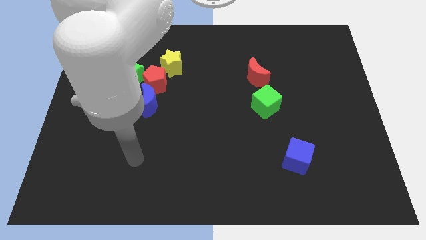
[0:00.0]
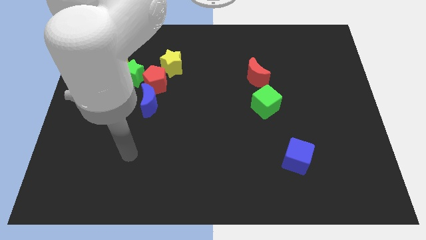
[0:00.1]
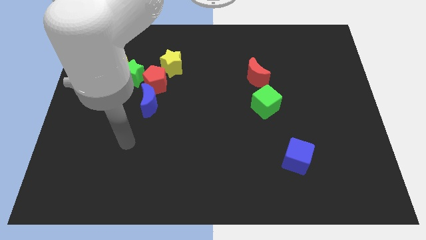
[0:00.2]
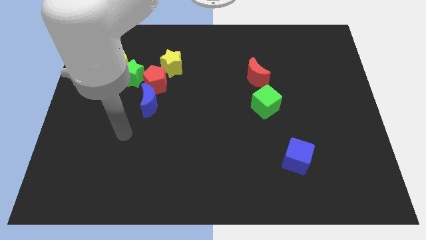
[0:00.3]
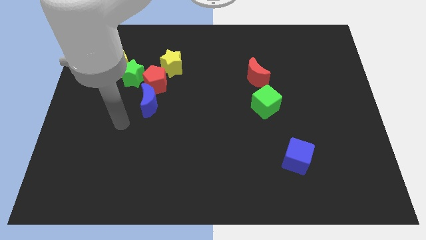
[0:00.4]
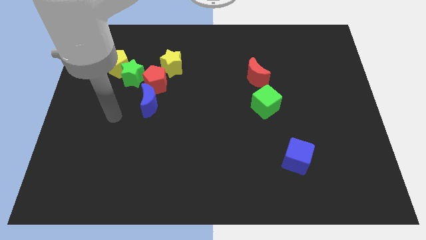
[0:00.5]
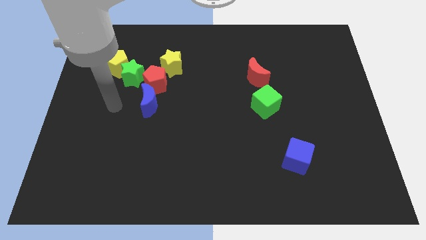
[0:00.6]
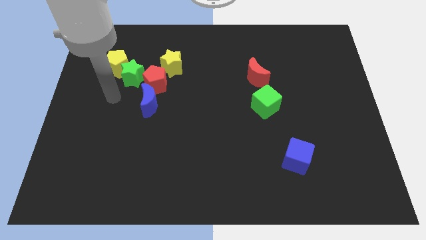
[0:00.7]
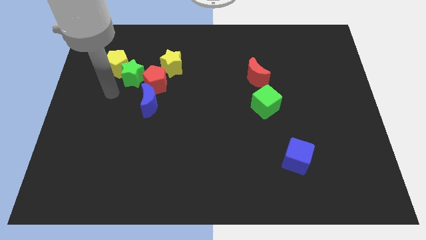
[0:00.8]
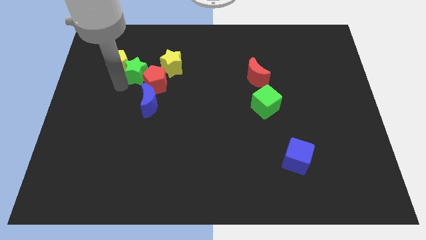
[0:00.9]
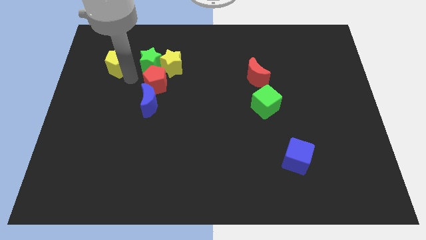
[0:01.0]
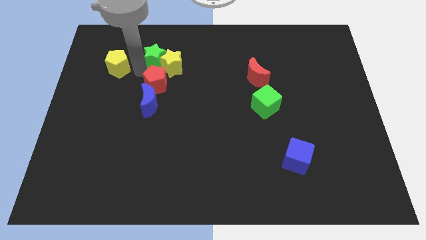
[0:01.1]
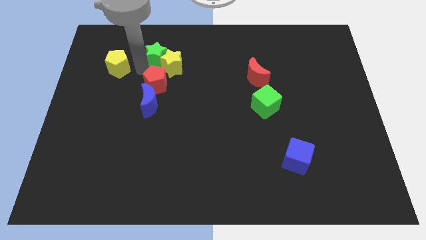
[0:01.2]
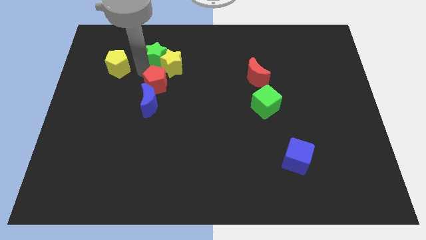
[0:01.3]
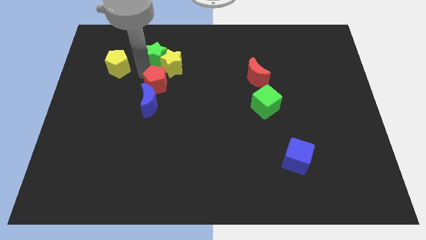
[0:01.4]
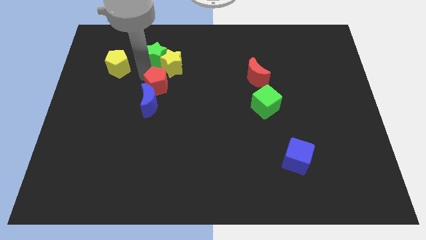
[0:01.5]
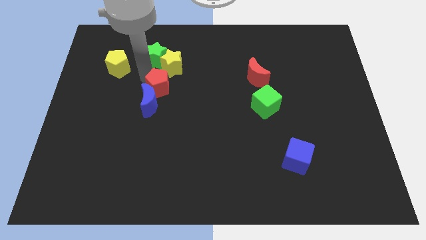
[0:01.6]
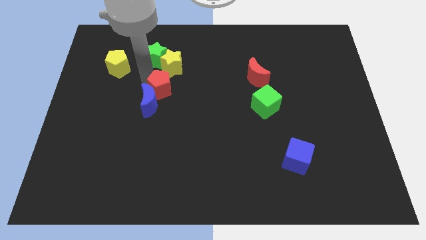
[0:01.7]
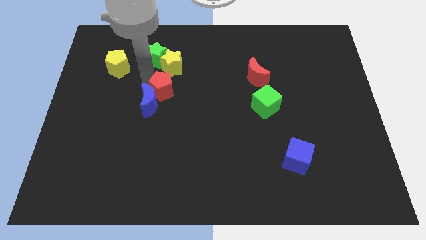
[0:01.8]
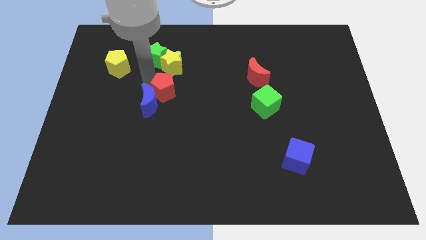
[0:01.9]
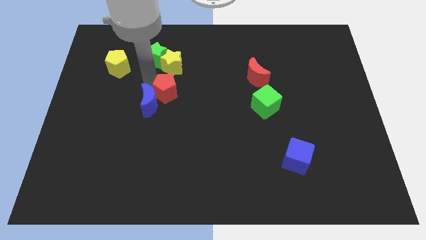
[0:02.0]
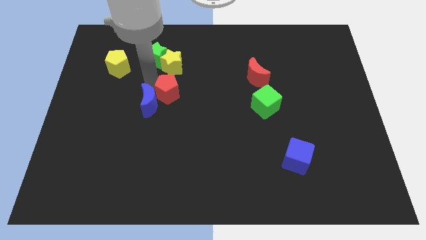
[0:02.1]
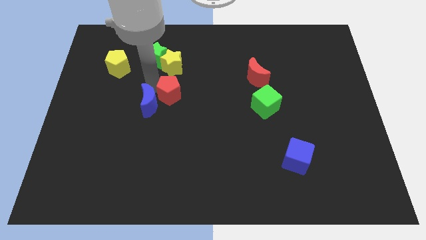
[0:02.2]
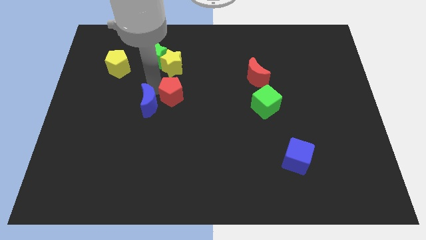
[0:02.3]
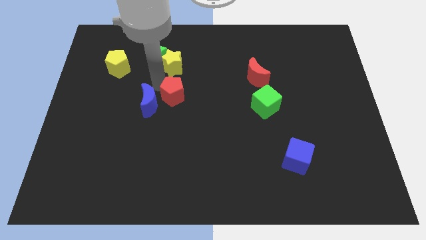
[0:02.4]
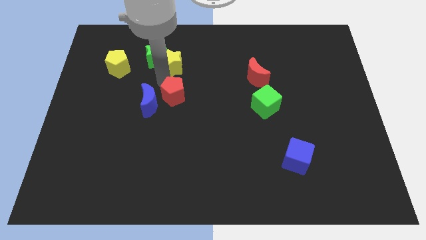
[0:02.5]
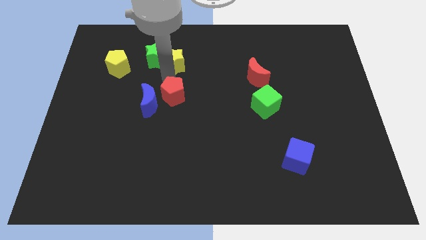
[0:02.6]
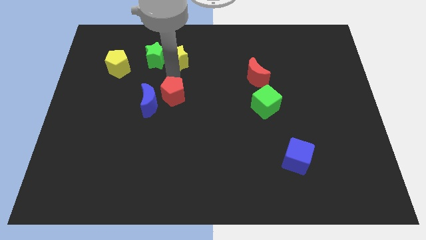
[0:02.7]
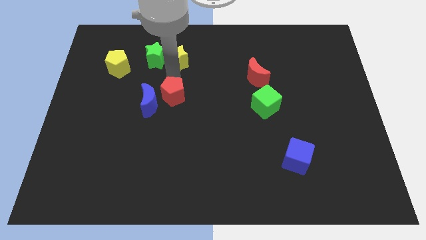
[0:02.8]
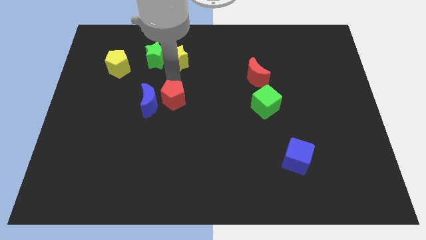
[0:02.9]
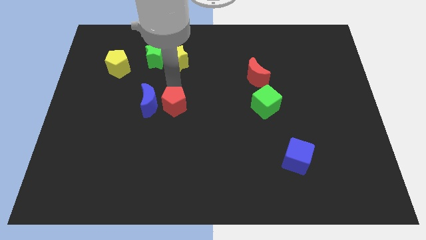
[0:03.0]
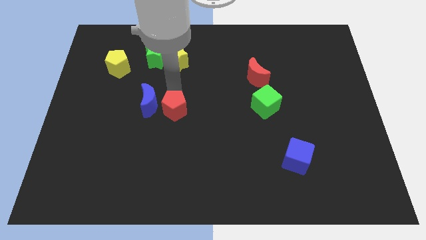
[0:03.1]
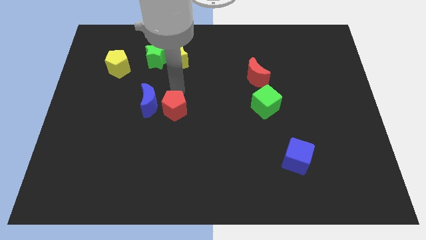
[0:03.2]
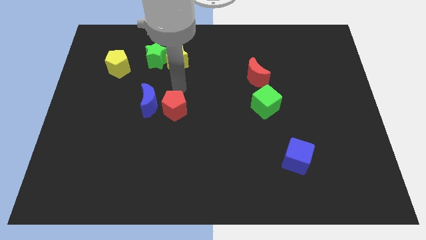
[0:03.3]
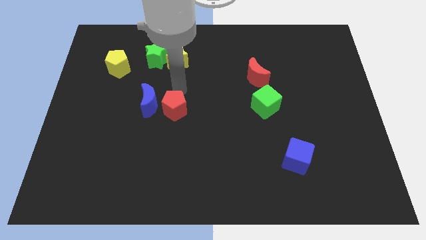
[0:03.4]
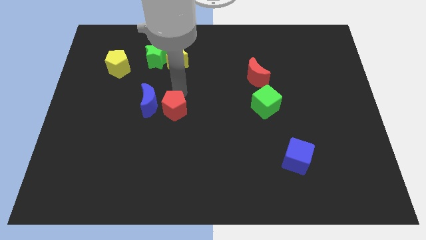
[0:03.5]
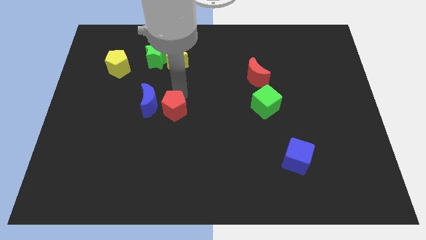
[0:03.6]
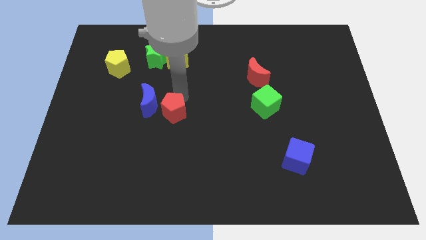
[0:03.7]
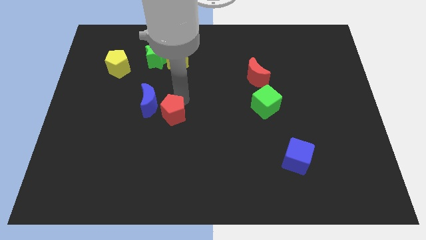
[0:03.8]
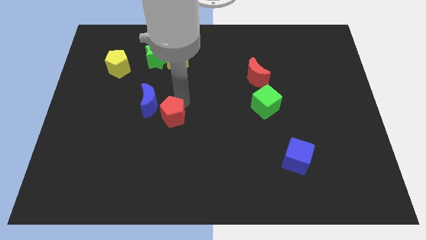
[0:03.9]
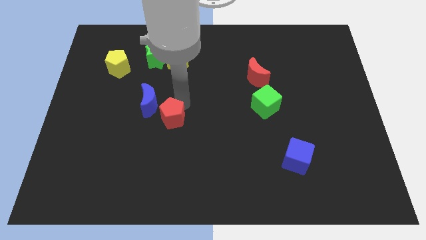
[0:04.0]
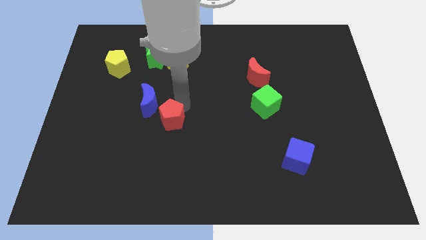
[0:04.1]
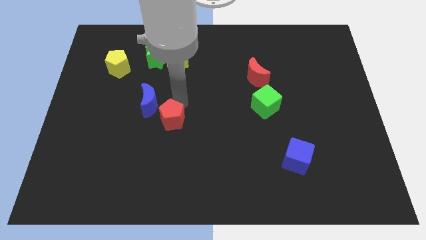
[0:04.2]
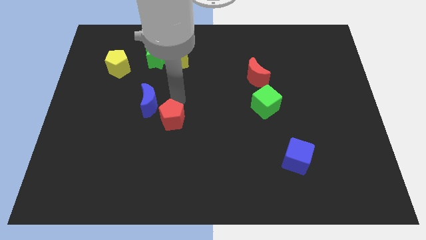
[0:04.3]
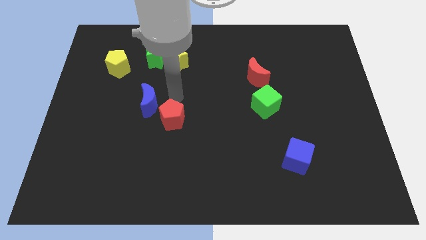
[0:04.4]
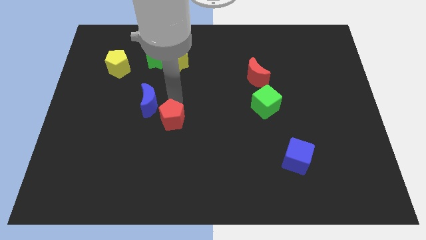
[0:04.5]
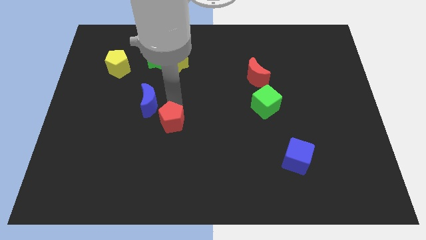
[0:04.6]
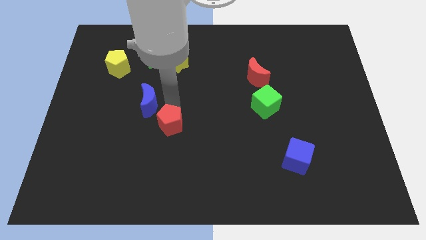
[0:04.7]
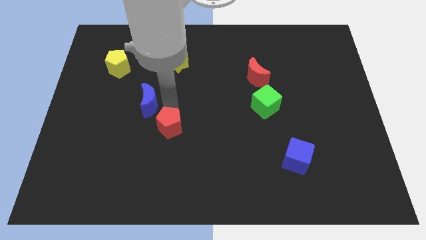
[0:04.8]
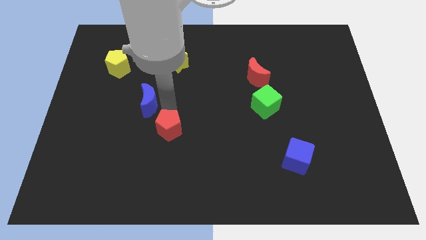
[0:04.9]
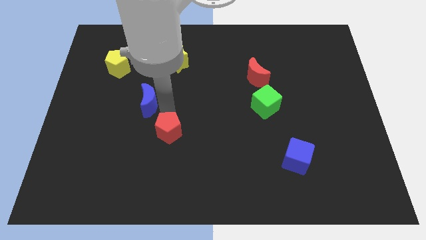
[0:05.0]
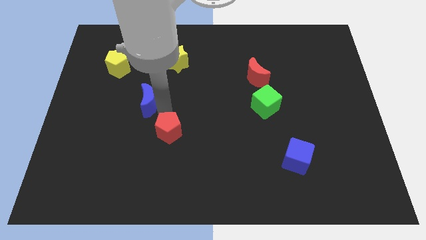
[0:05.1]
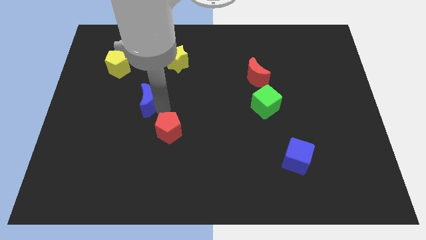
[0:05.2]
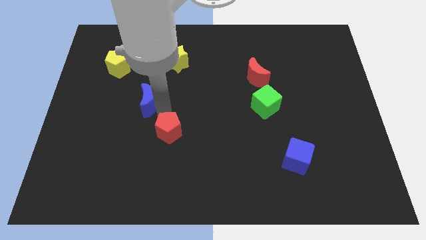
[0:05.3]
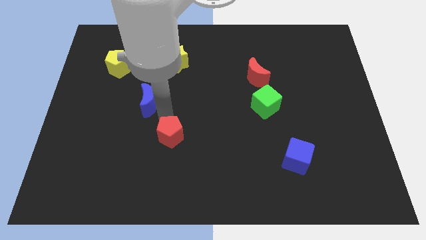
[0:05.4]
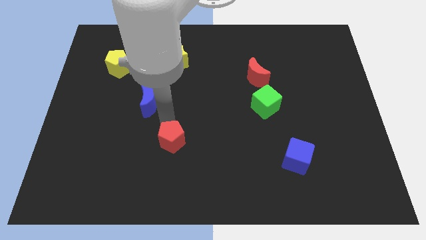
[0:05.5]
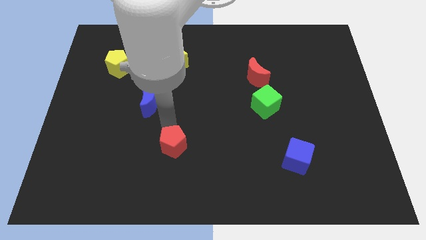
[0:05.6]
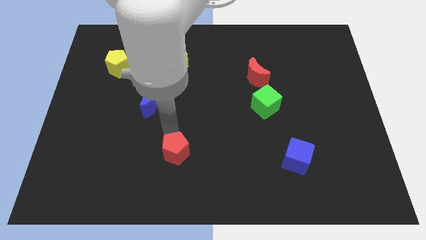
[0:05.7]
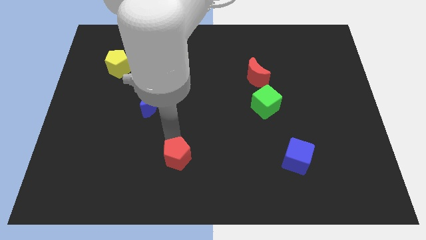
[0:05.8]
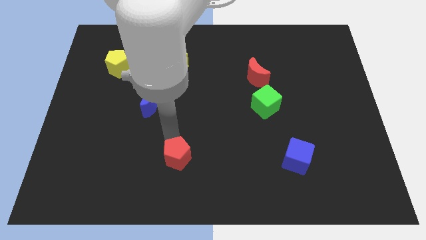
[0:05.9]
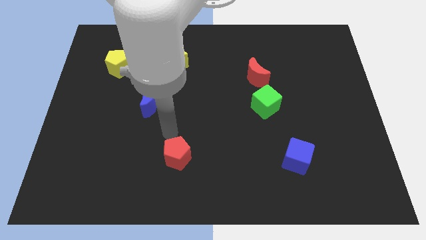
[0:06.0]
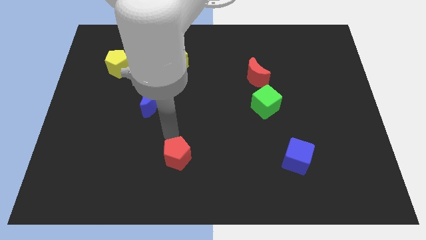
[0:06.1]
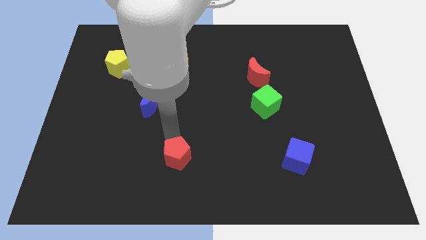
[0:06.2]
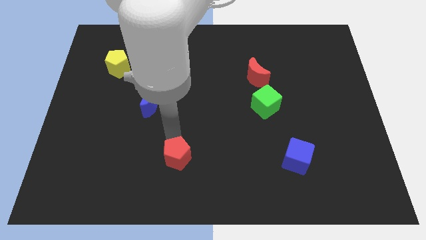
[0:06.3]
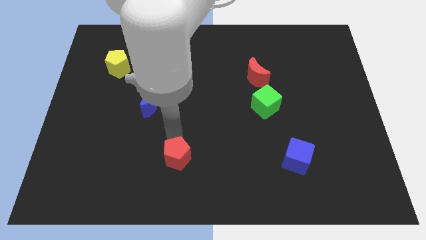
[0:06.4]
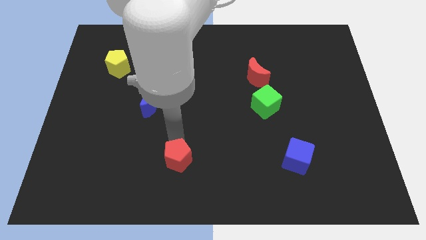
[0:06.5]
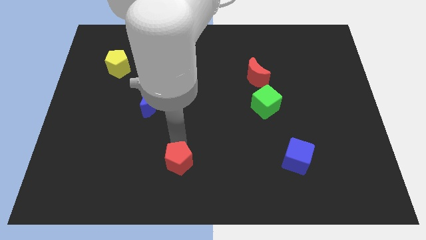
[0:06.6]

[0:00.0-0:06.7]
put the red pentagon to the bottom

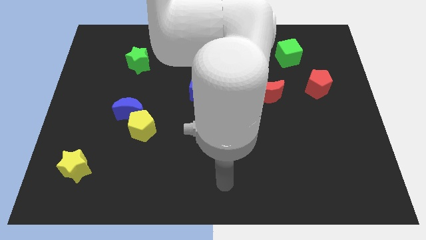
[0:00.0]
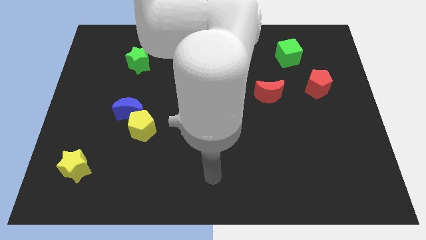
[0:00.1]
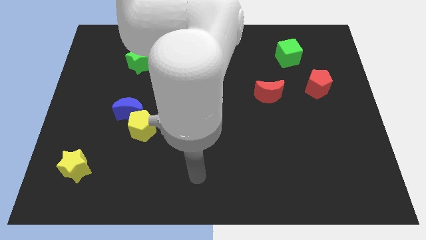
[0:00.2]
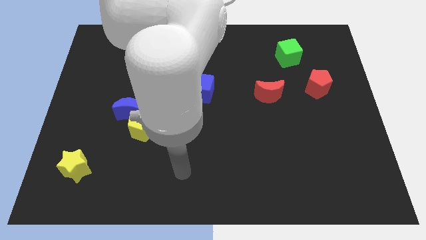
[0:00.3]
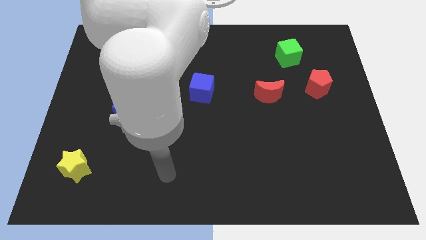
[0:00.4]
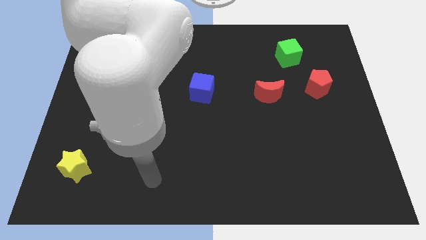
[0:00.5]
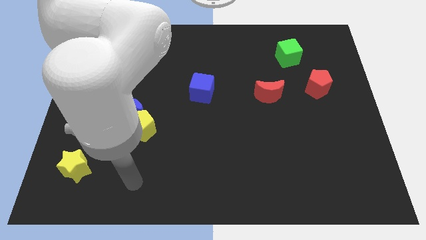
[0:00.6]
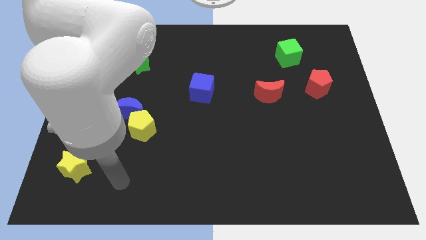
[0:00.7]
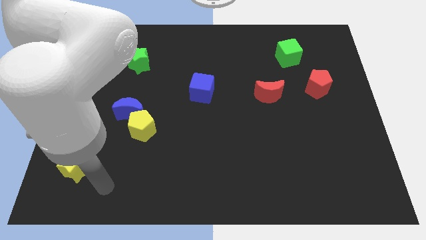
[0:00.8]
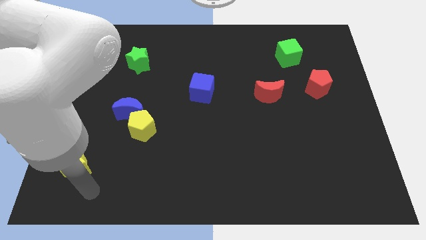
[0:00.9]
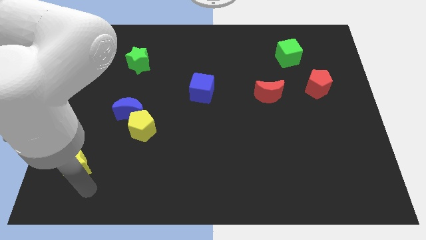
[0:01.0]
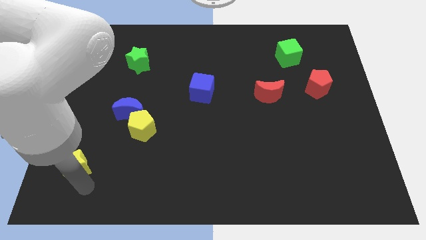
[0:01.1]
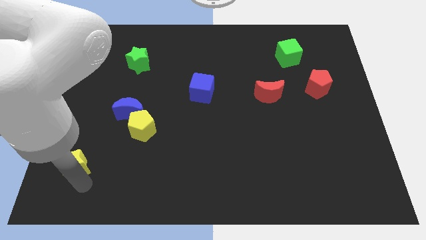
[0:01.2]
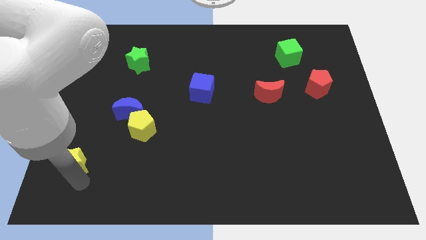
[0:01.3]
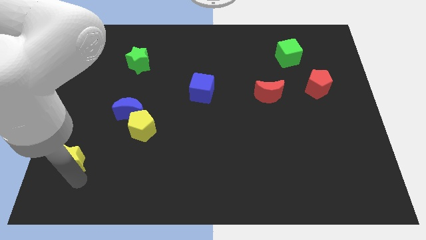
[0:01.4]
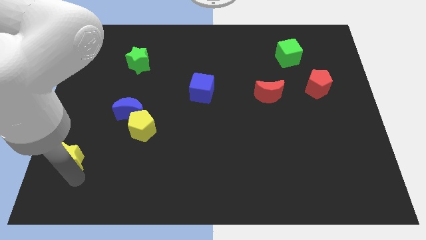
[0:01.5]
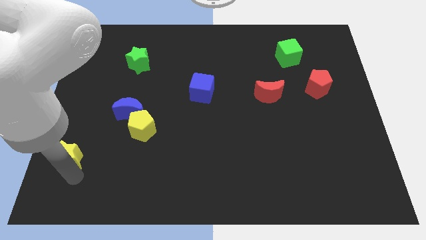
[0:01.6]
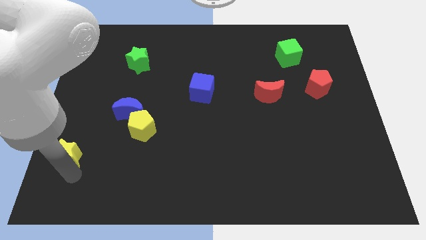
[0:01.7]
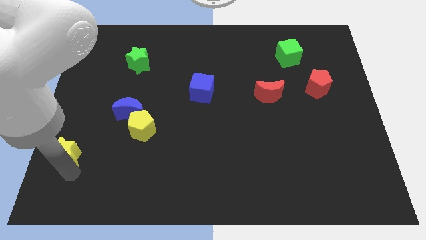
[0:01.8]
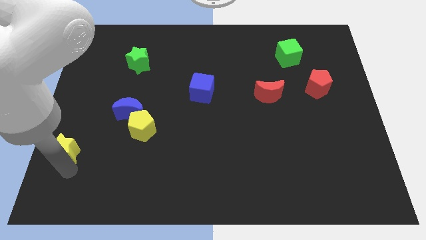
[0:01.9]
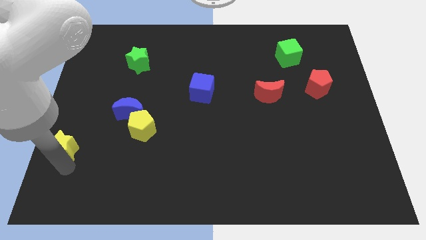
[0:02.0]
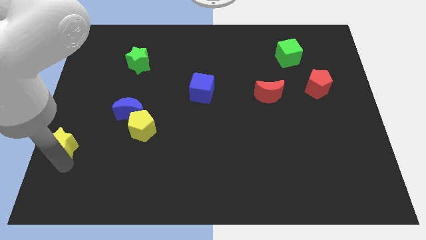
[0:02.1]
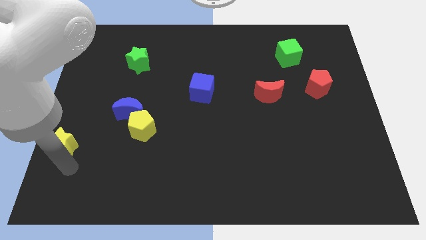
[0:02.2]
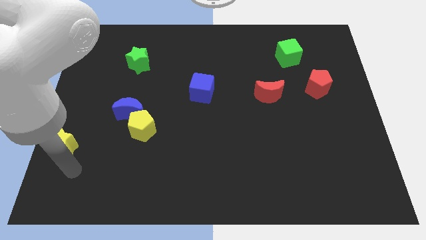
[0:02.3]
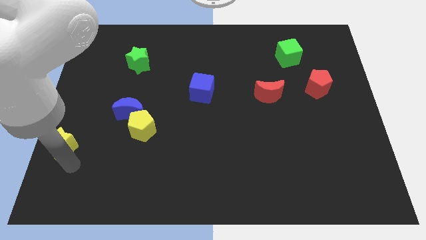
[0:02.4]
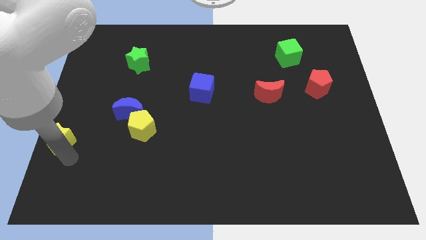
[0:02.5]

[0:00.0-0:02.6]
push the yellow star to the left side of the board
